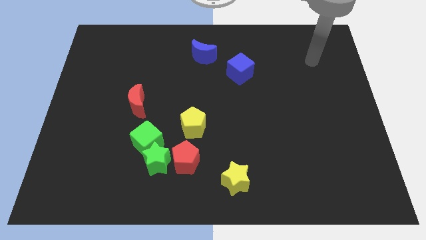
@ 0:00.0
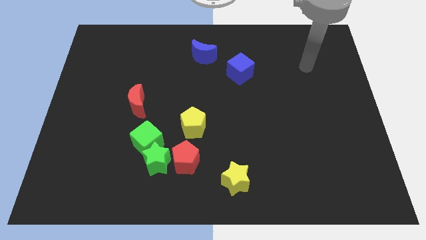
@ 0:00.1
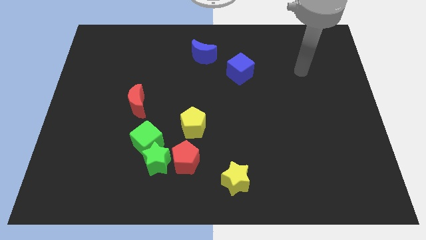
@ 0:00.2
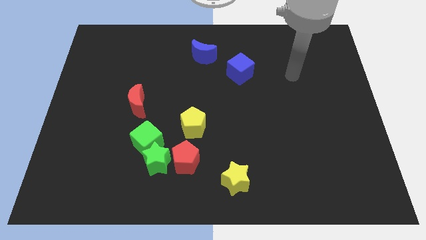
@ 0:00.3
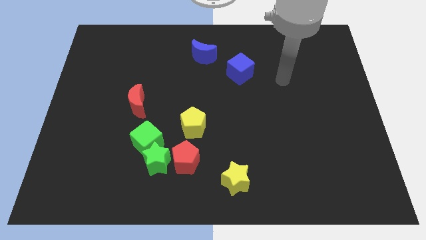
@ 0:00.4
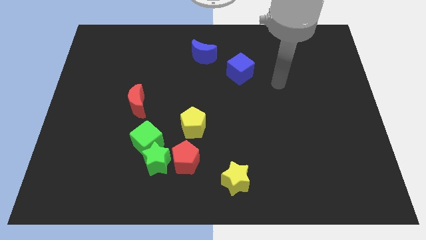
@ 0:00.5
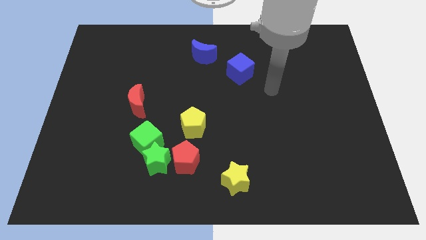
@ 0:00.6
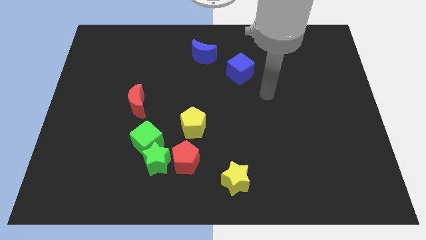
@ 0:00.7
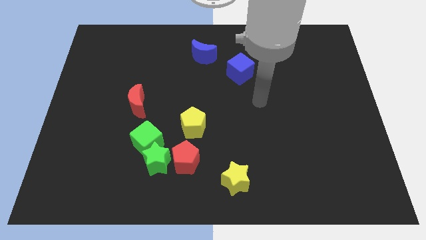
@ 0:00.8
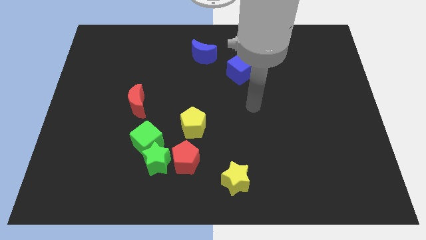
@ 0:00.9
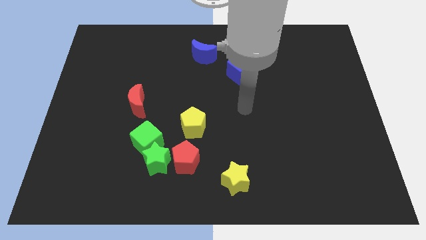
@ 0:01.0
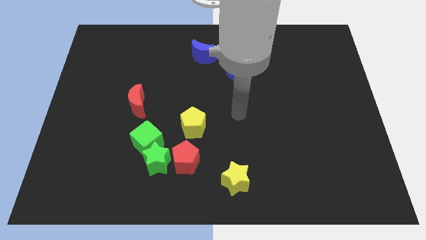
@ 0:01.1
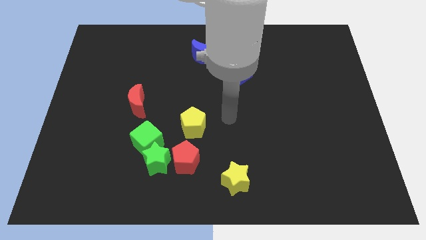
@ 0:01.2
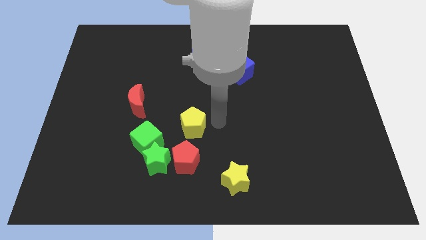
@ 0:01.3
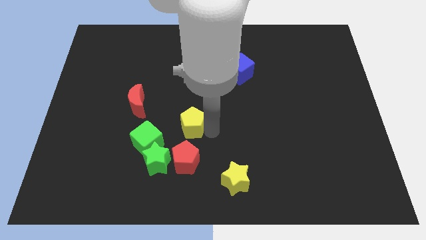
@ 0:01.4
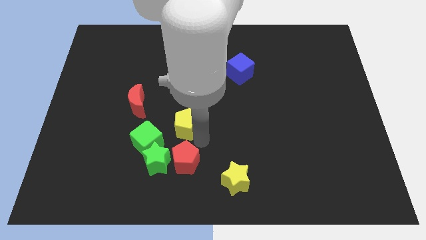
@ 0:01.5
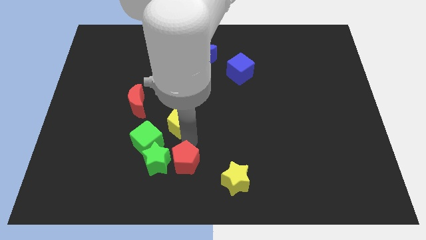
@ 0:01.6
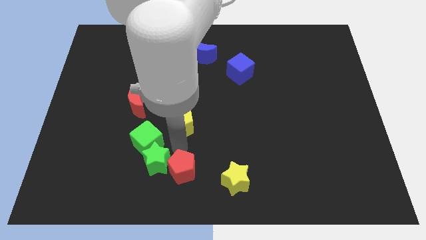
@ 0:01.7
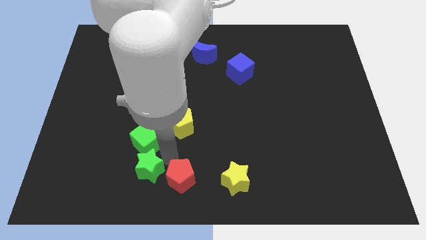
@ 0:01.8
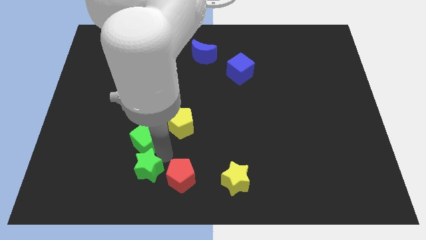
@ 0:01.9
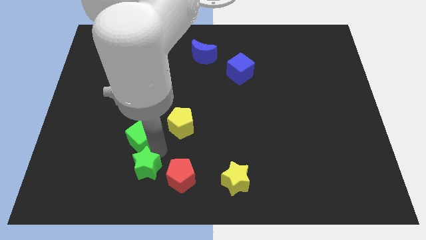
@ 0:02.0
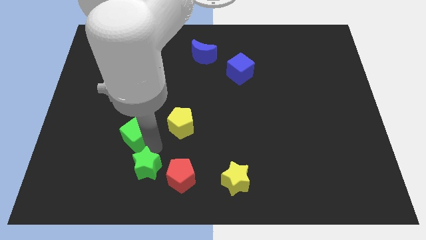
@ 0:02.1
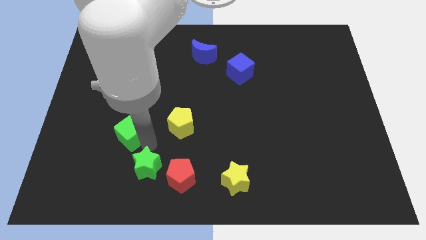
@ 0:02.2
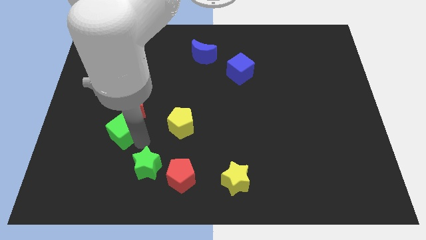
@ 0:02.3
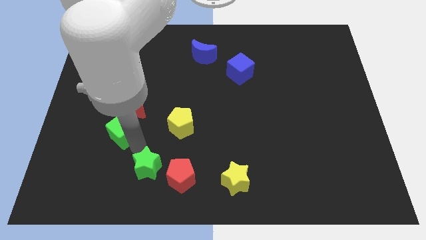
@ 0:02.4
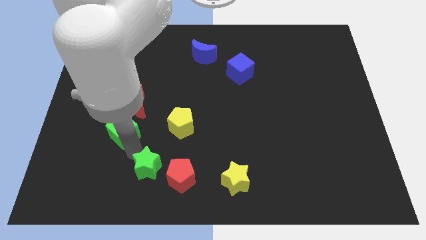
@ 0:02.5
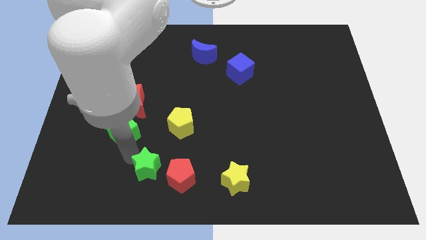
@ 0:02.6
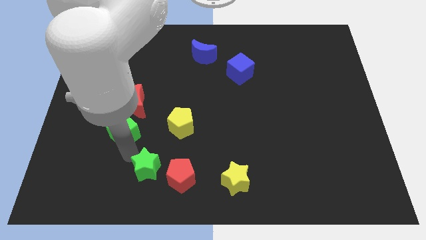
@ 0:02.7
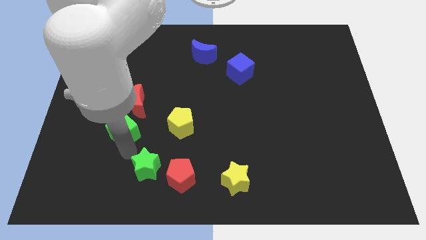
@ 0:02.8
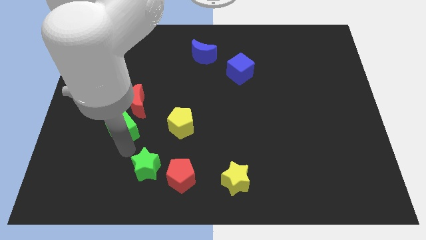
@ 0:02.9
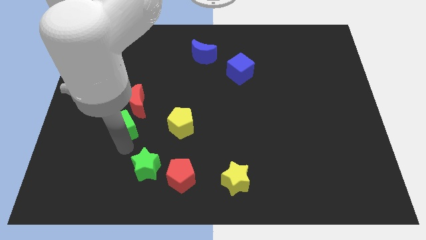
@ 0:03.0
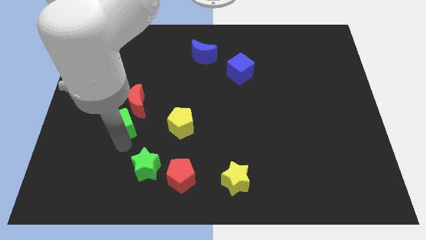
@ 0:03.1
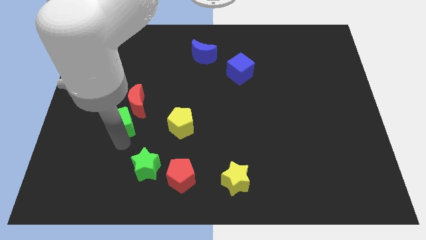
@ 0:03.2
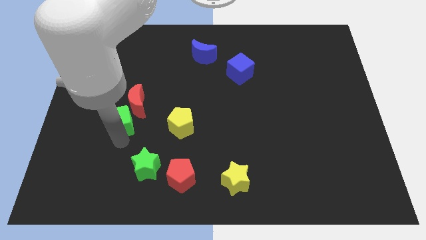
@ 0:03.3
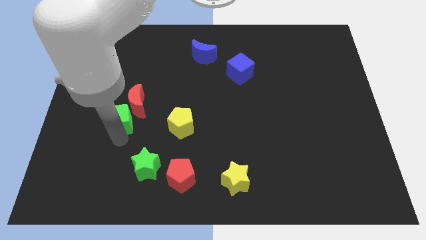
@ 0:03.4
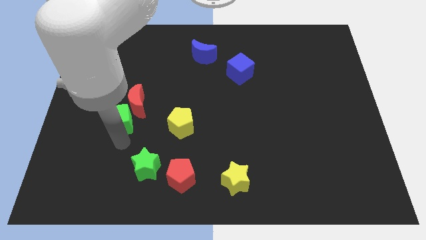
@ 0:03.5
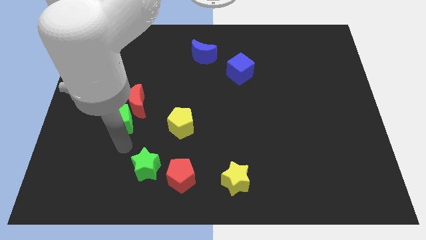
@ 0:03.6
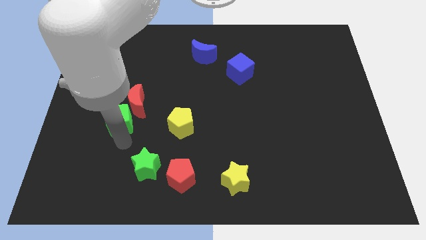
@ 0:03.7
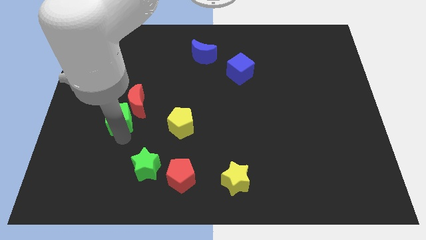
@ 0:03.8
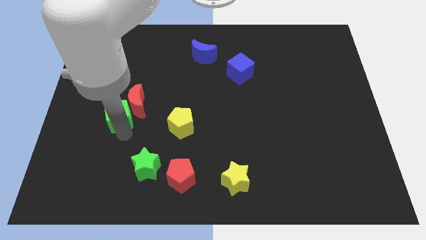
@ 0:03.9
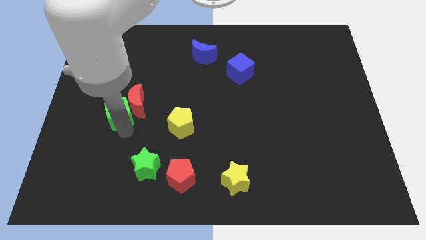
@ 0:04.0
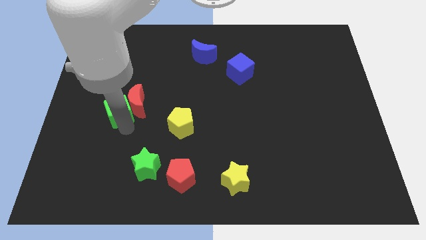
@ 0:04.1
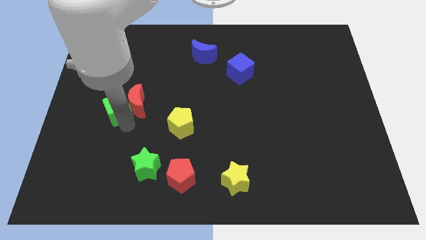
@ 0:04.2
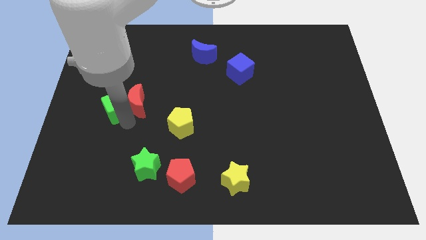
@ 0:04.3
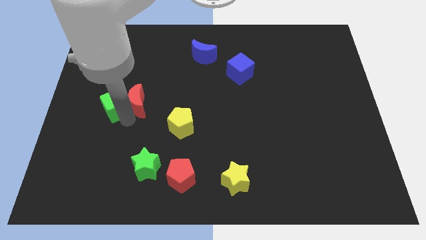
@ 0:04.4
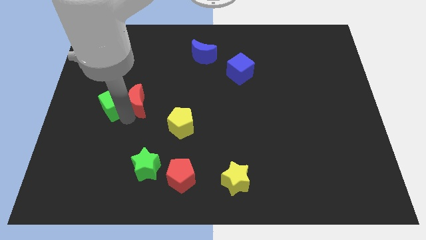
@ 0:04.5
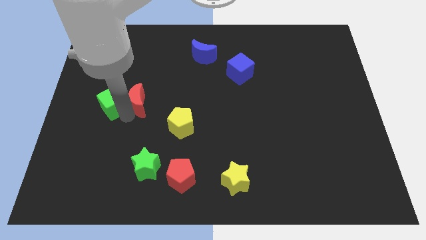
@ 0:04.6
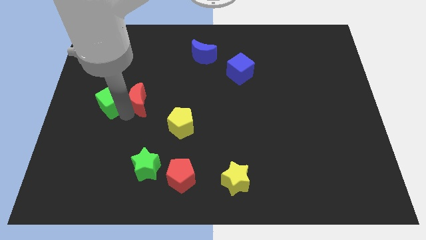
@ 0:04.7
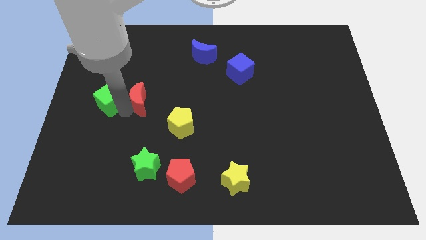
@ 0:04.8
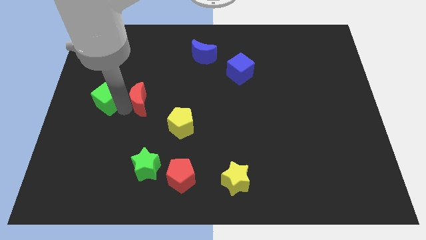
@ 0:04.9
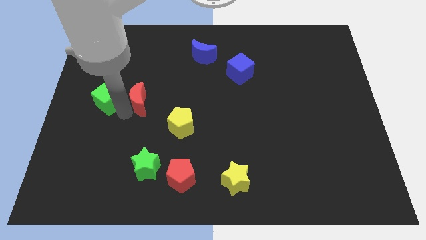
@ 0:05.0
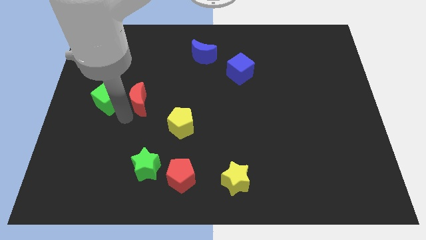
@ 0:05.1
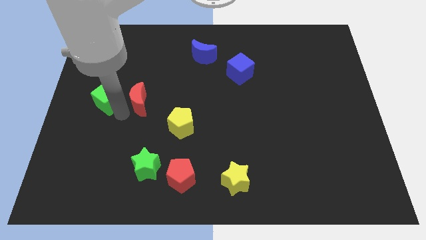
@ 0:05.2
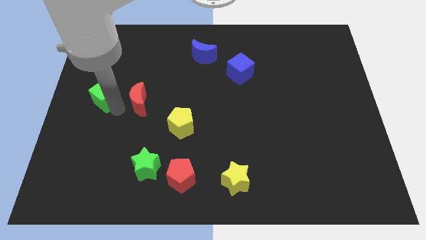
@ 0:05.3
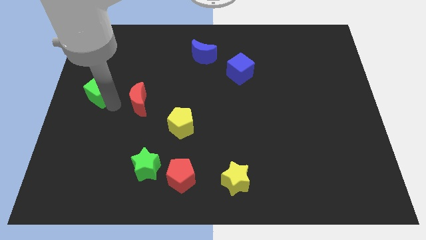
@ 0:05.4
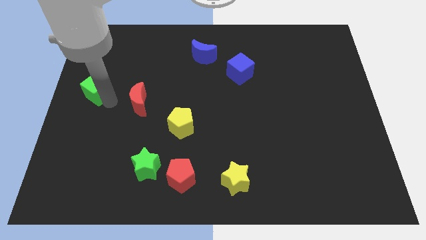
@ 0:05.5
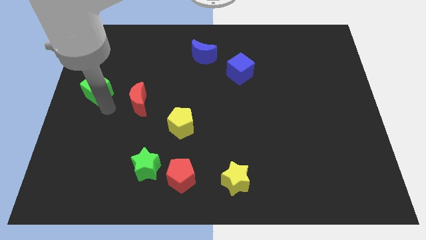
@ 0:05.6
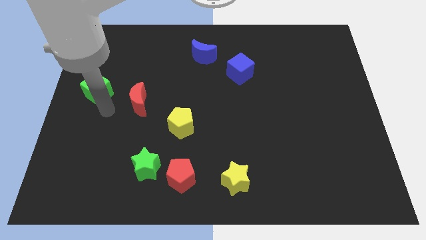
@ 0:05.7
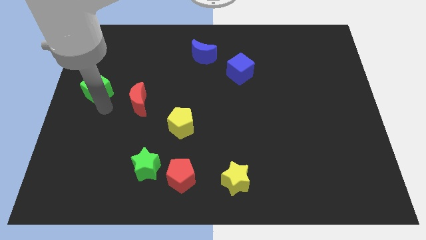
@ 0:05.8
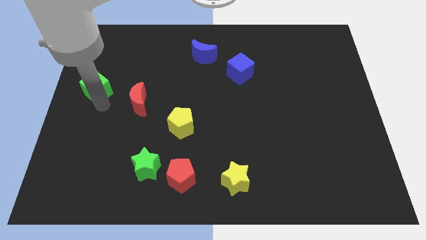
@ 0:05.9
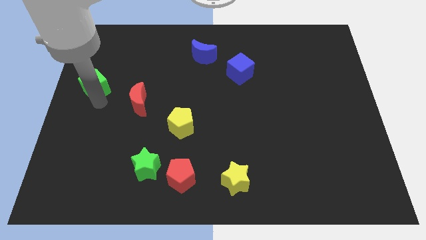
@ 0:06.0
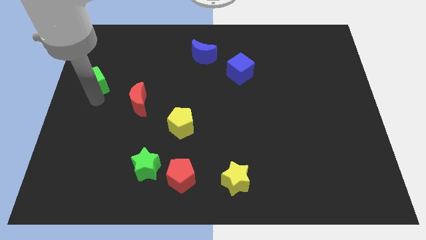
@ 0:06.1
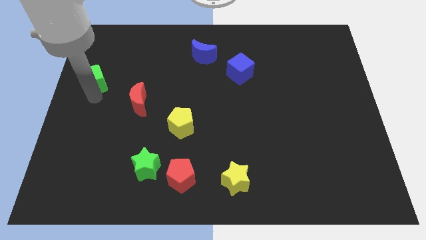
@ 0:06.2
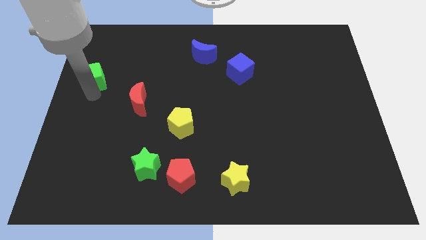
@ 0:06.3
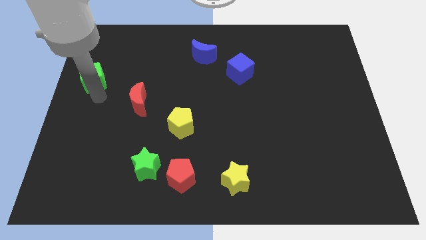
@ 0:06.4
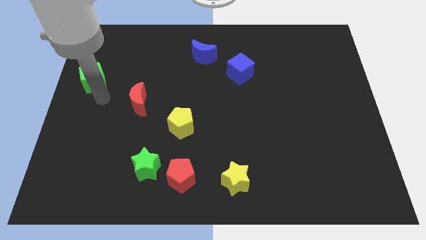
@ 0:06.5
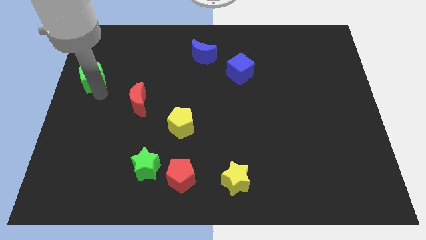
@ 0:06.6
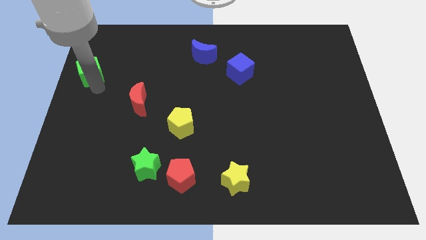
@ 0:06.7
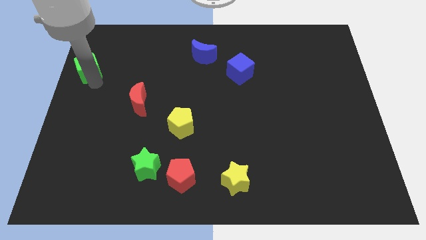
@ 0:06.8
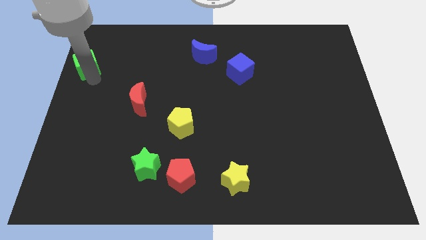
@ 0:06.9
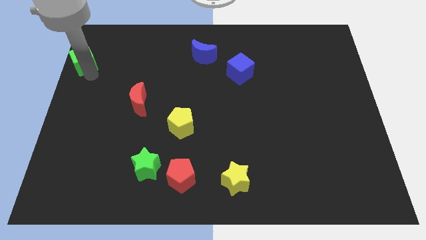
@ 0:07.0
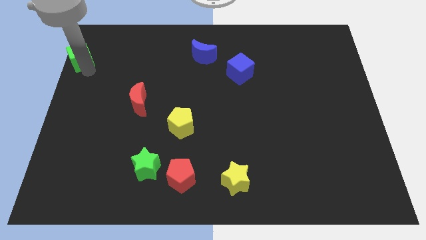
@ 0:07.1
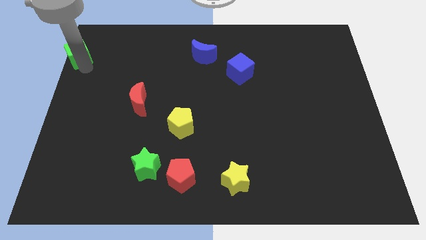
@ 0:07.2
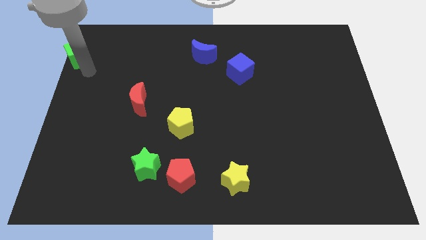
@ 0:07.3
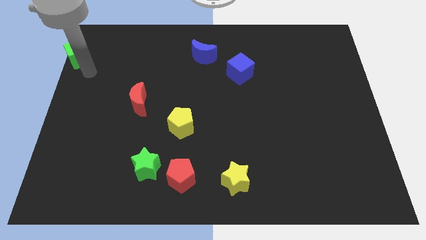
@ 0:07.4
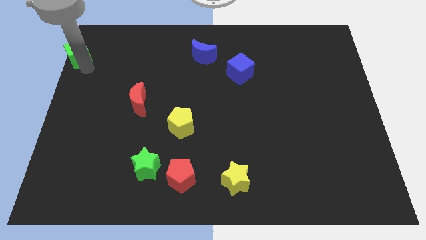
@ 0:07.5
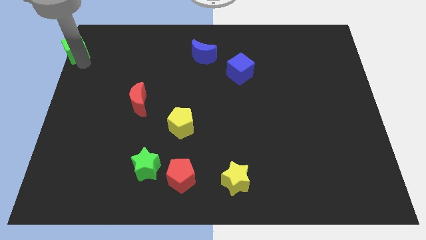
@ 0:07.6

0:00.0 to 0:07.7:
slide the green cube to the upper left corner
